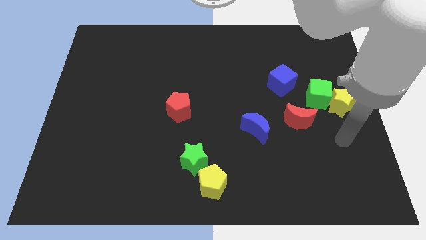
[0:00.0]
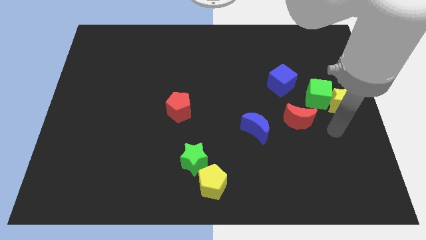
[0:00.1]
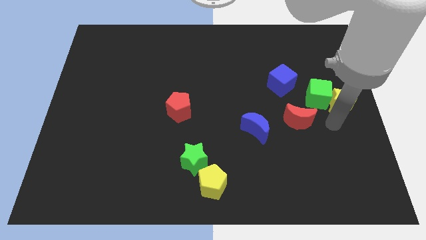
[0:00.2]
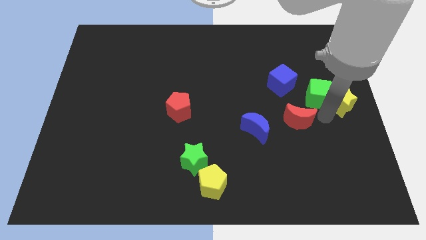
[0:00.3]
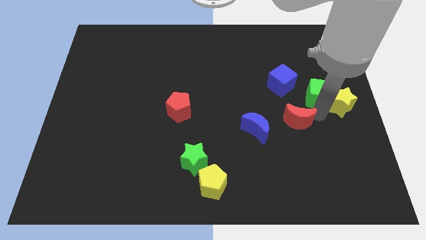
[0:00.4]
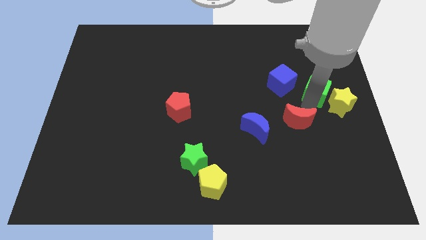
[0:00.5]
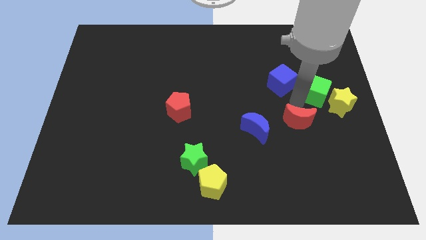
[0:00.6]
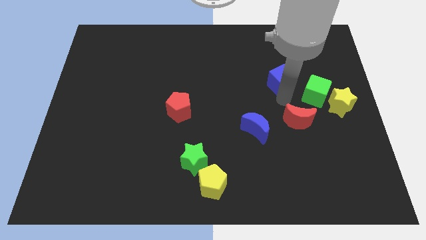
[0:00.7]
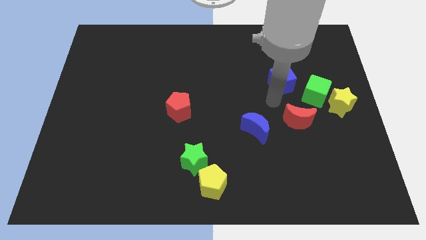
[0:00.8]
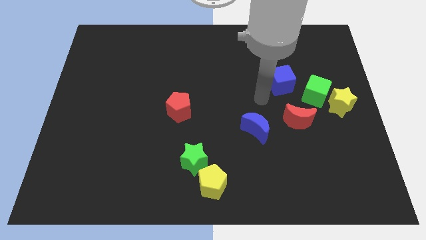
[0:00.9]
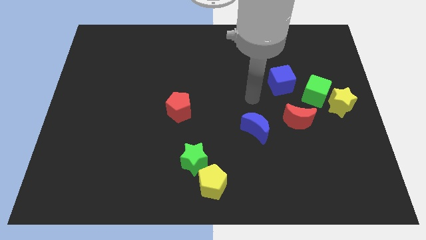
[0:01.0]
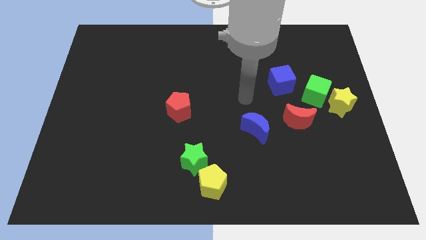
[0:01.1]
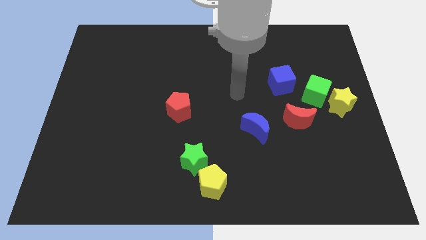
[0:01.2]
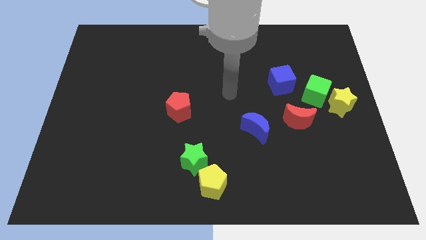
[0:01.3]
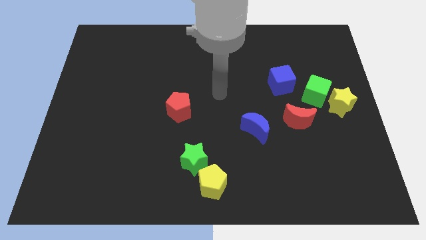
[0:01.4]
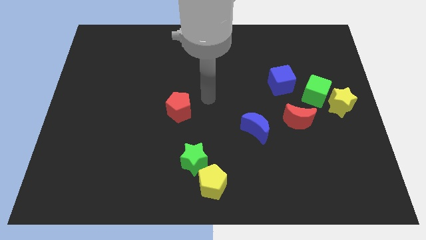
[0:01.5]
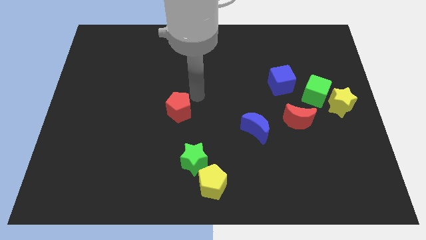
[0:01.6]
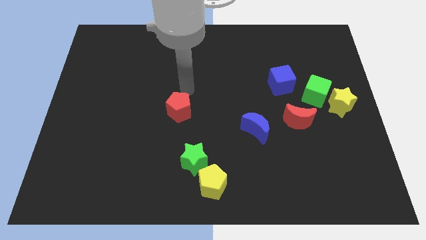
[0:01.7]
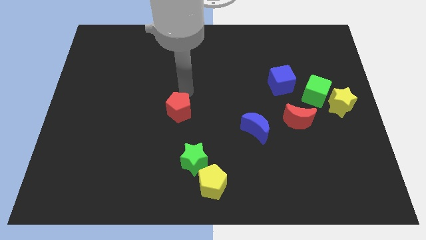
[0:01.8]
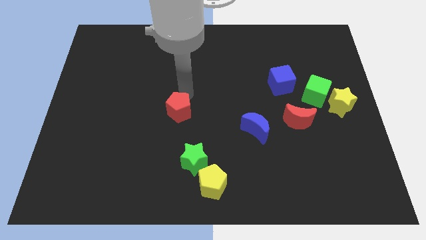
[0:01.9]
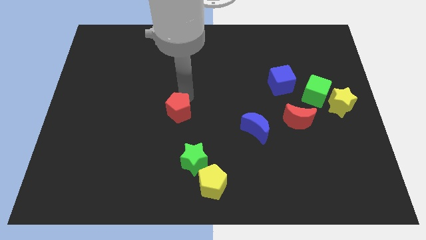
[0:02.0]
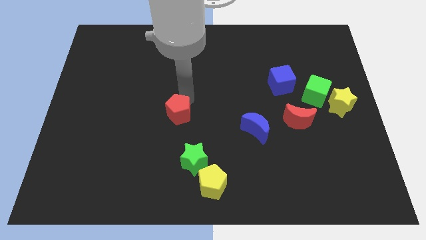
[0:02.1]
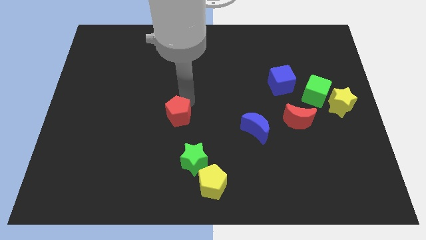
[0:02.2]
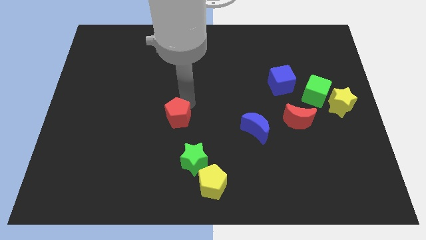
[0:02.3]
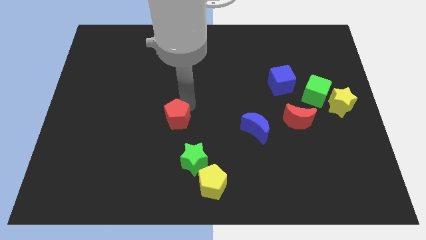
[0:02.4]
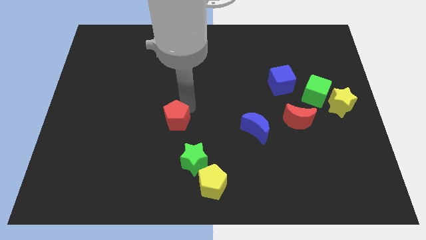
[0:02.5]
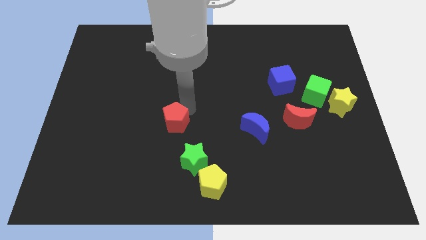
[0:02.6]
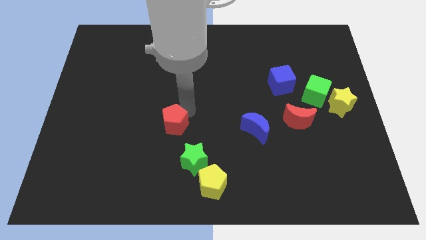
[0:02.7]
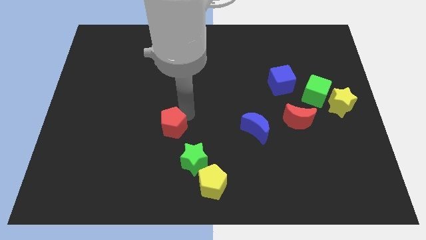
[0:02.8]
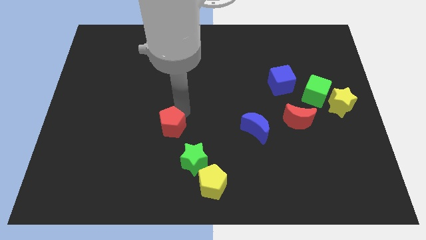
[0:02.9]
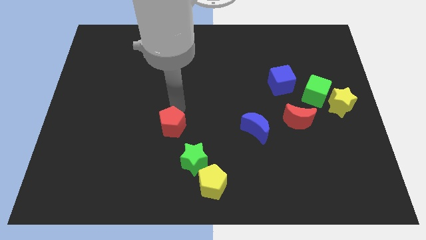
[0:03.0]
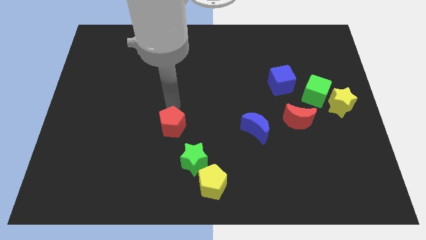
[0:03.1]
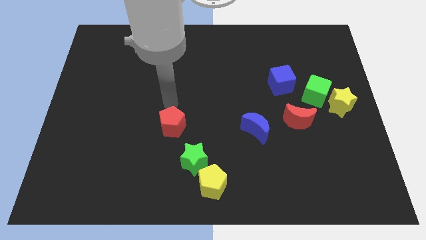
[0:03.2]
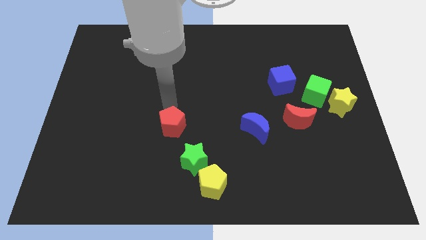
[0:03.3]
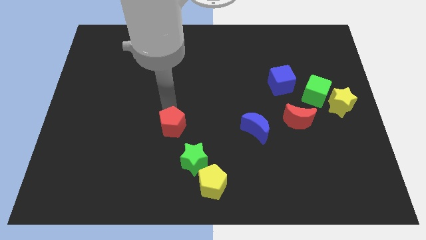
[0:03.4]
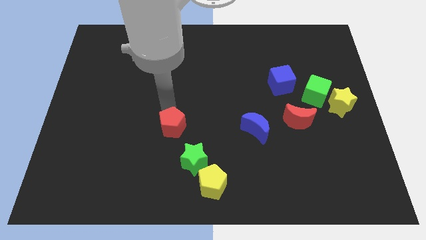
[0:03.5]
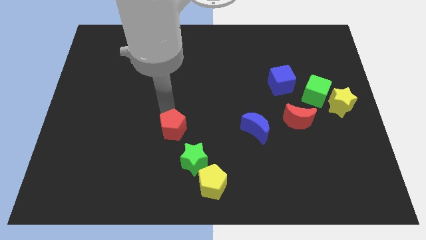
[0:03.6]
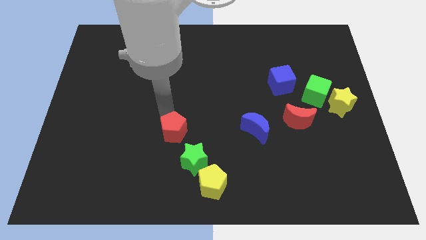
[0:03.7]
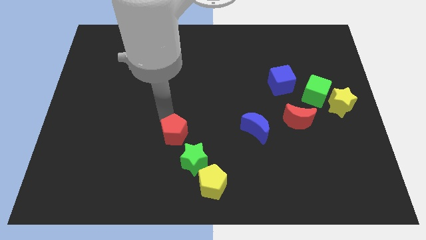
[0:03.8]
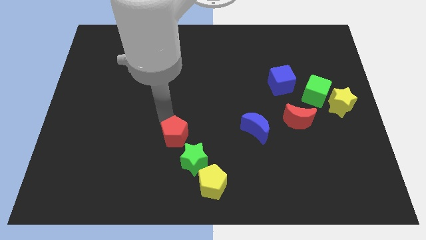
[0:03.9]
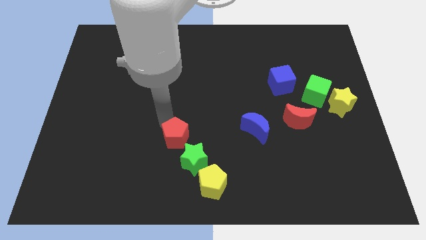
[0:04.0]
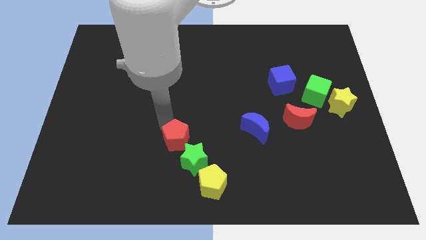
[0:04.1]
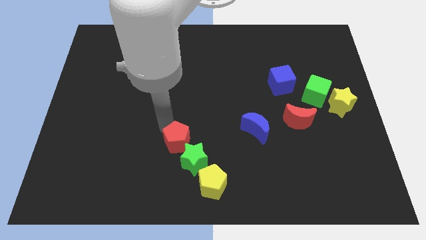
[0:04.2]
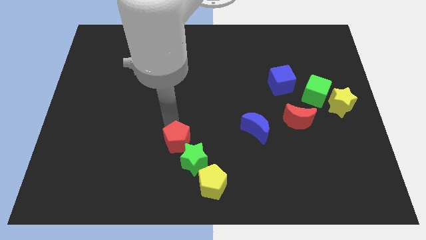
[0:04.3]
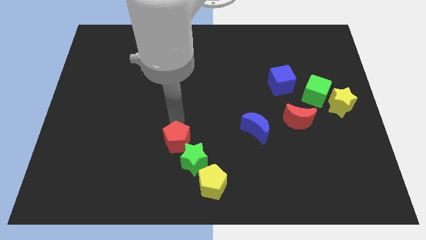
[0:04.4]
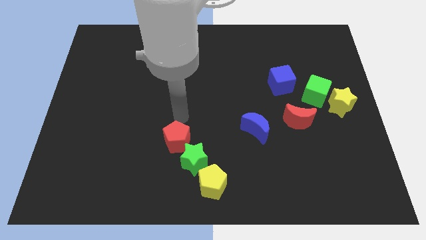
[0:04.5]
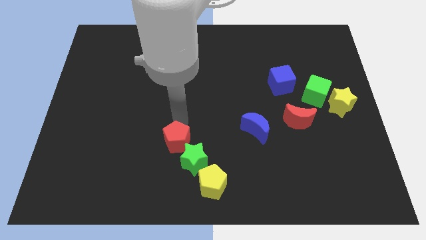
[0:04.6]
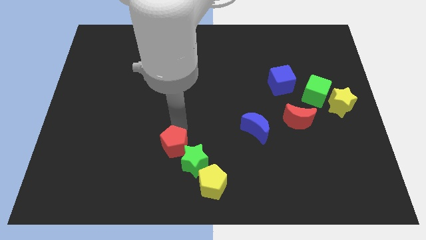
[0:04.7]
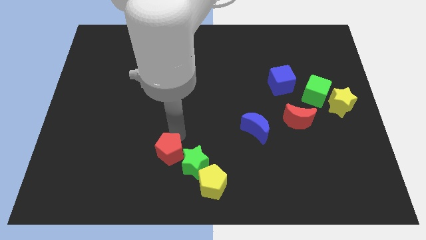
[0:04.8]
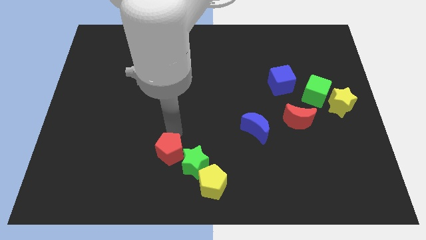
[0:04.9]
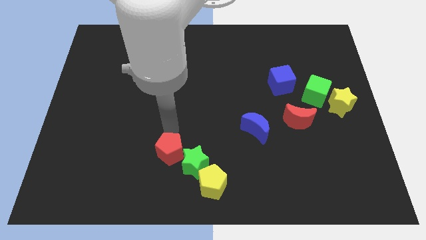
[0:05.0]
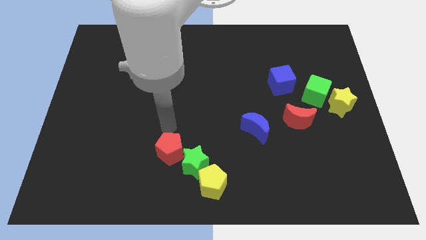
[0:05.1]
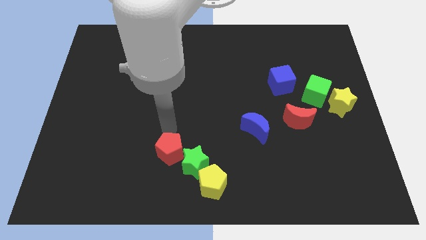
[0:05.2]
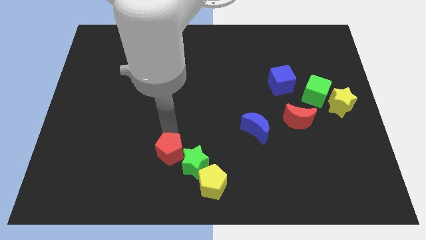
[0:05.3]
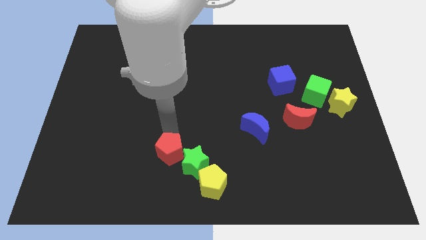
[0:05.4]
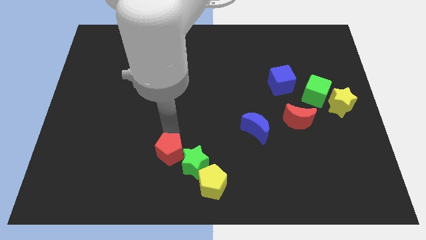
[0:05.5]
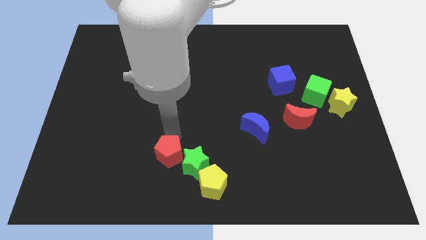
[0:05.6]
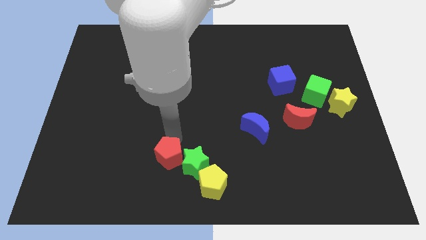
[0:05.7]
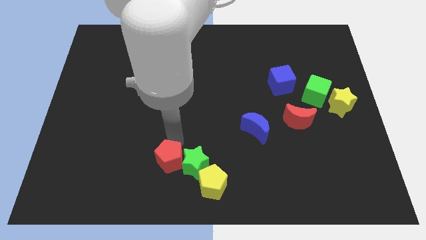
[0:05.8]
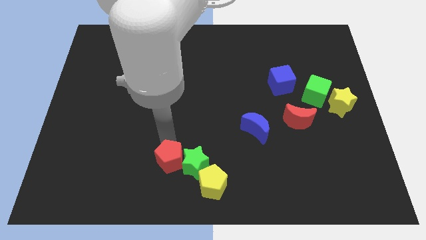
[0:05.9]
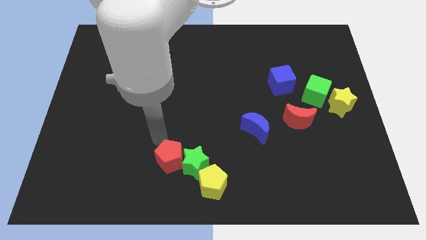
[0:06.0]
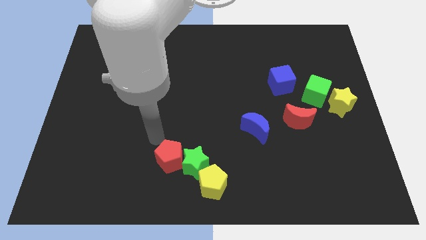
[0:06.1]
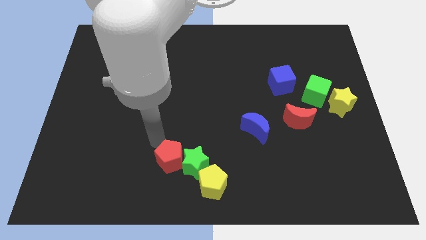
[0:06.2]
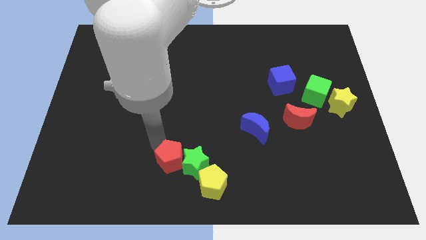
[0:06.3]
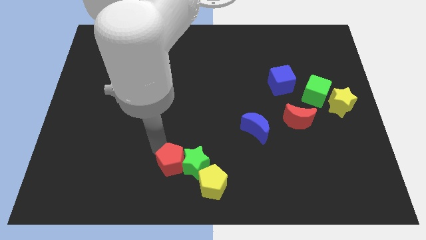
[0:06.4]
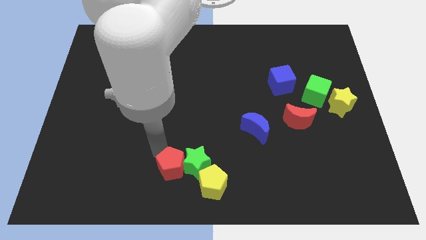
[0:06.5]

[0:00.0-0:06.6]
push the red pentagon to the bottom
